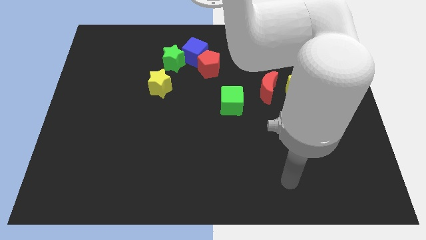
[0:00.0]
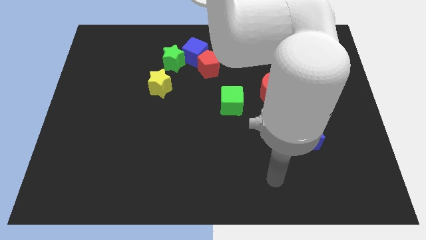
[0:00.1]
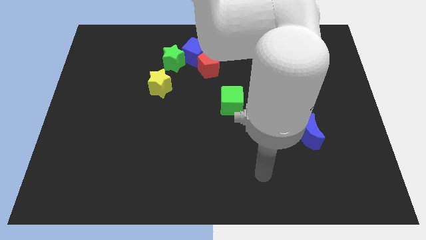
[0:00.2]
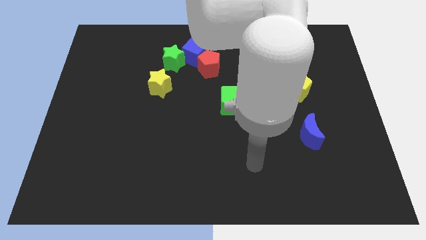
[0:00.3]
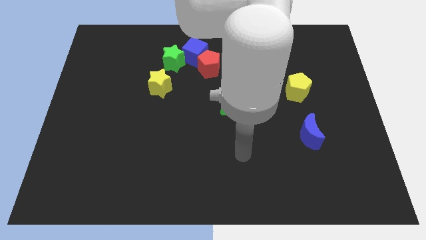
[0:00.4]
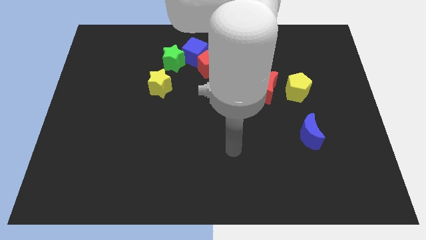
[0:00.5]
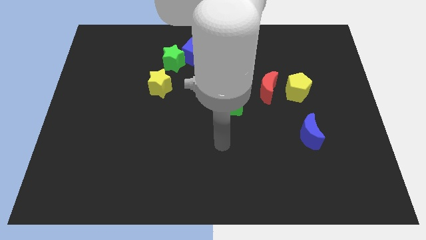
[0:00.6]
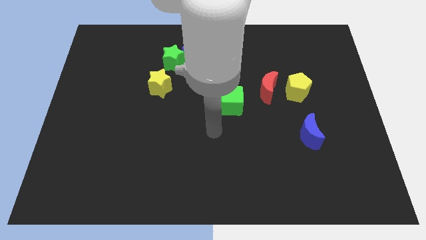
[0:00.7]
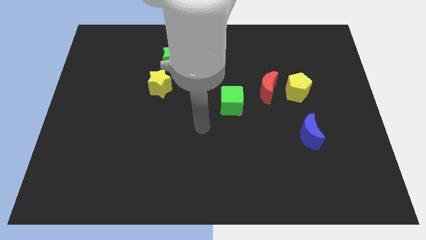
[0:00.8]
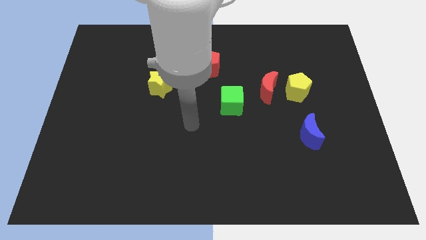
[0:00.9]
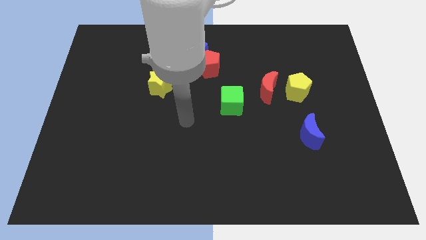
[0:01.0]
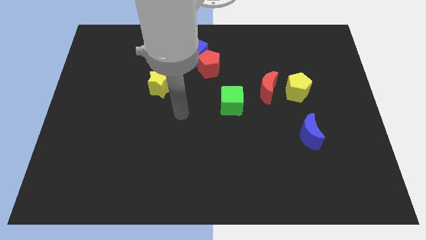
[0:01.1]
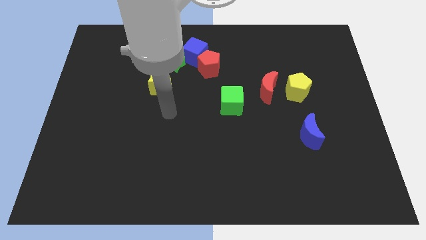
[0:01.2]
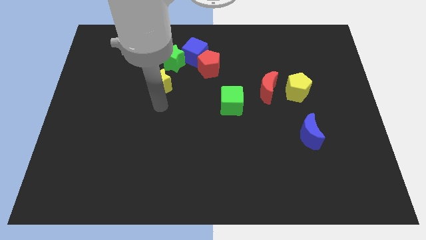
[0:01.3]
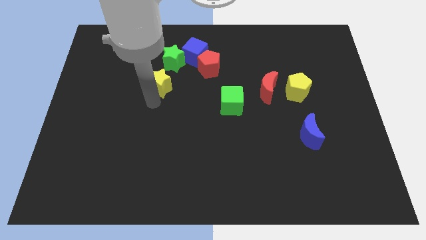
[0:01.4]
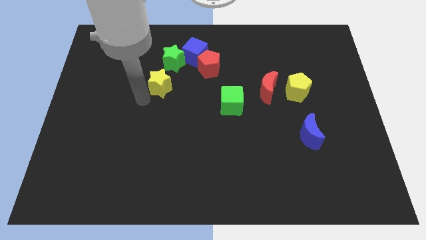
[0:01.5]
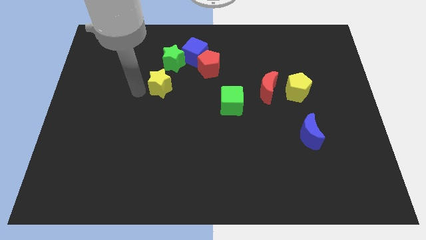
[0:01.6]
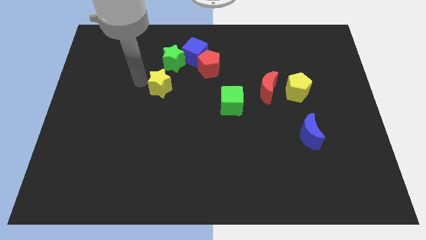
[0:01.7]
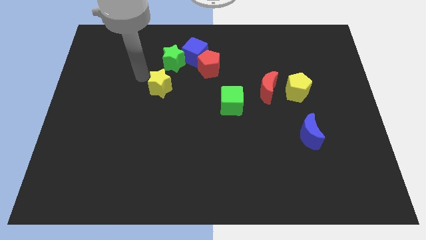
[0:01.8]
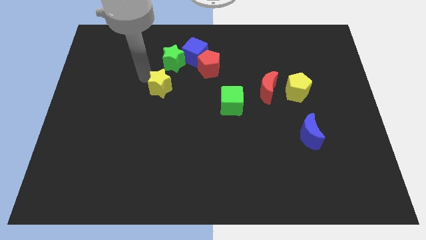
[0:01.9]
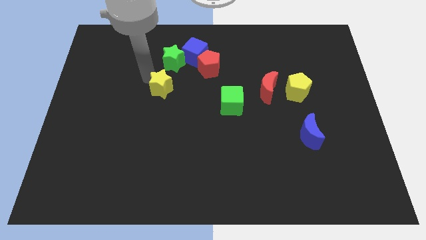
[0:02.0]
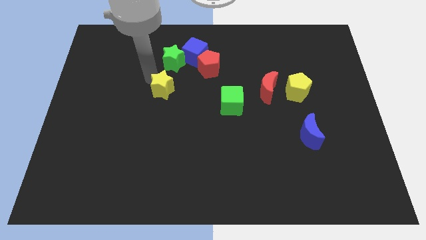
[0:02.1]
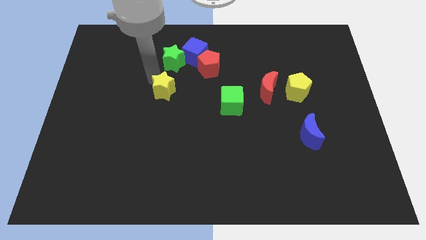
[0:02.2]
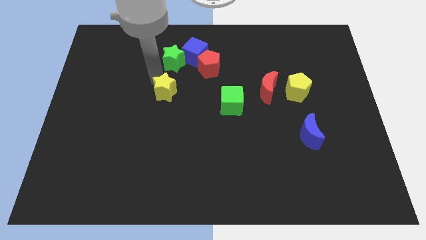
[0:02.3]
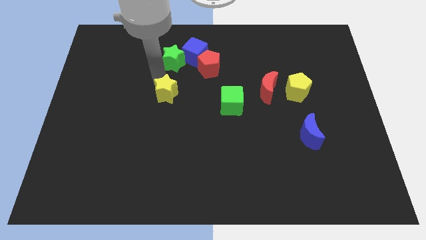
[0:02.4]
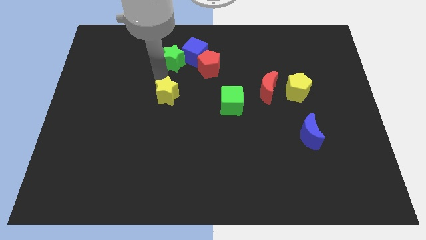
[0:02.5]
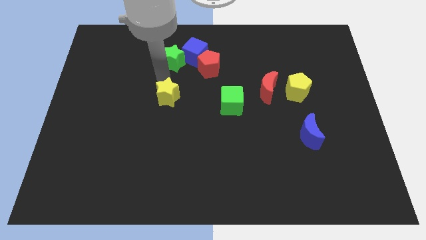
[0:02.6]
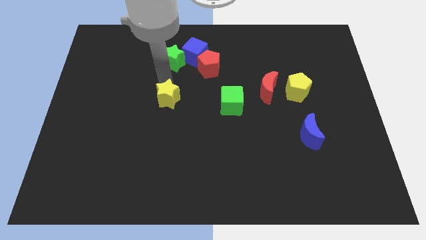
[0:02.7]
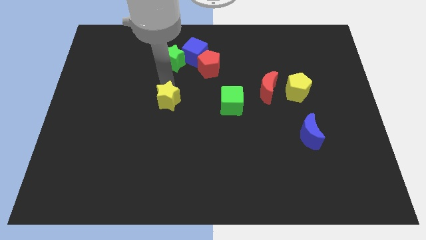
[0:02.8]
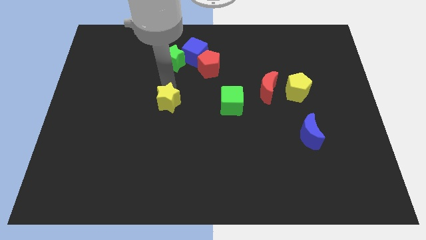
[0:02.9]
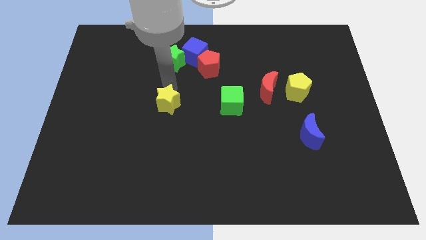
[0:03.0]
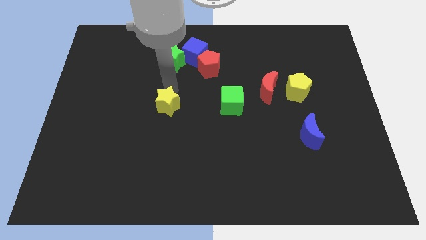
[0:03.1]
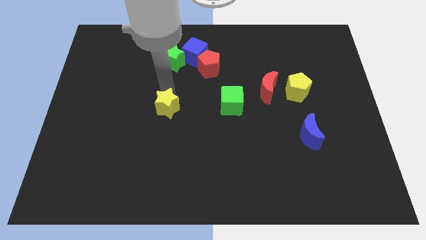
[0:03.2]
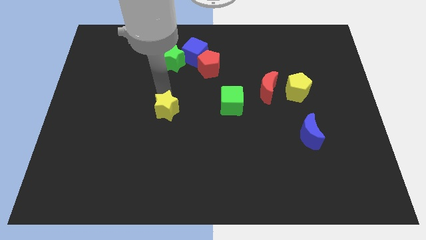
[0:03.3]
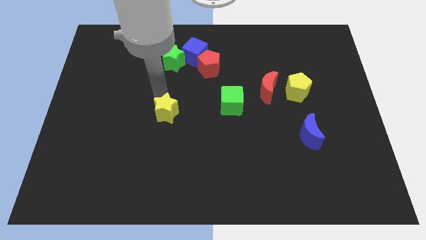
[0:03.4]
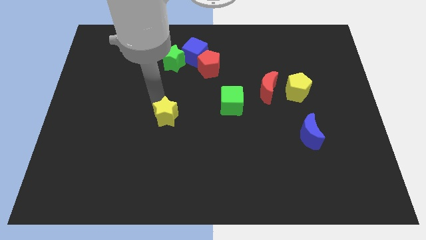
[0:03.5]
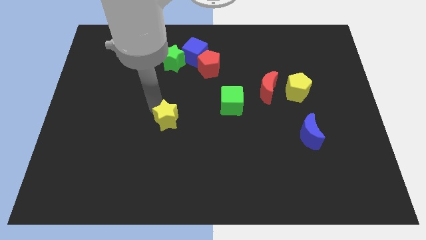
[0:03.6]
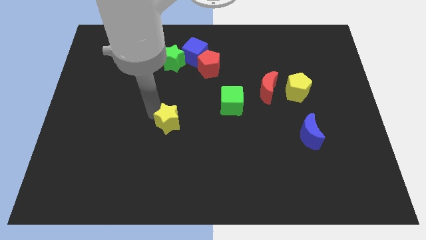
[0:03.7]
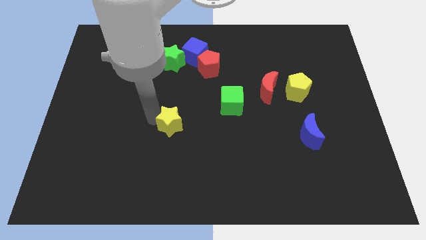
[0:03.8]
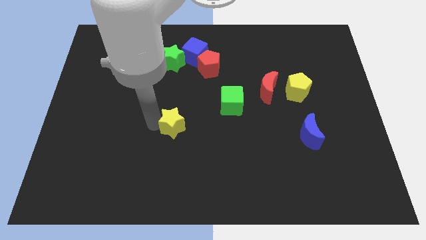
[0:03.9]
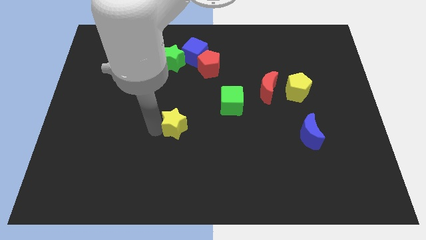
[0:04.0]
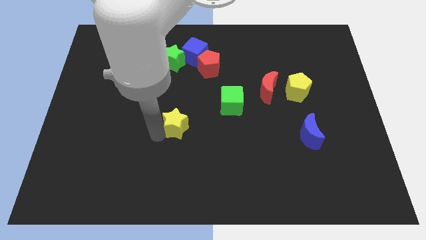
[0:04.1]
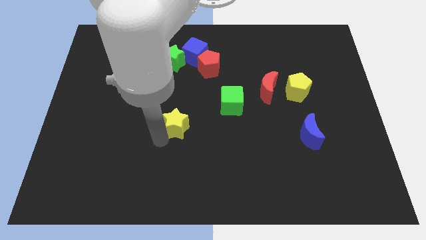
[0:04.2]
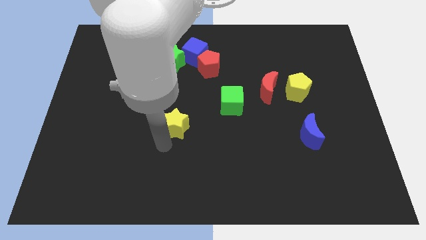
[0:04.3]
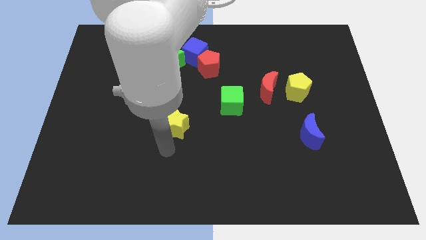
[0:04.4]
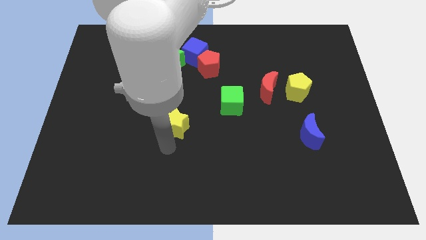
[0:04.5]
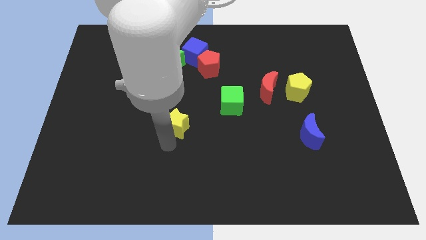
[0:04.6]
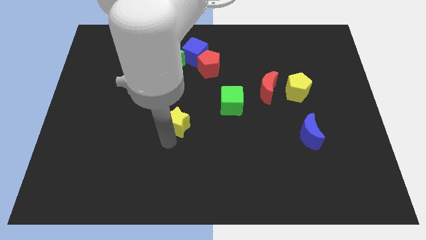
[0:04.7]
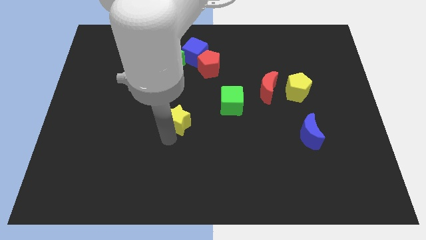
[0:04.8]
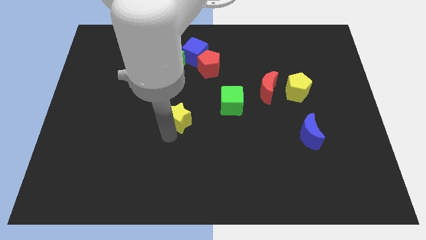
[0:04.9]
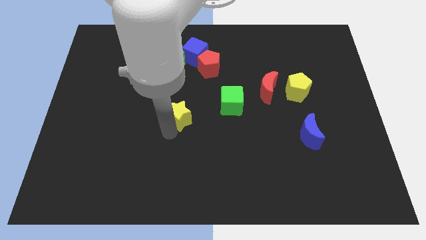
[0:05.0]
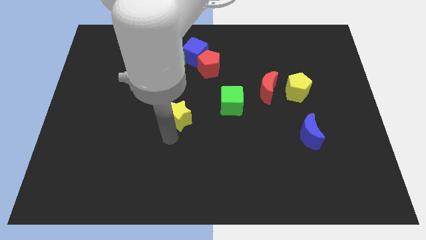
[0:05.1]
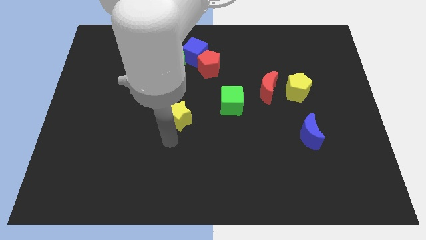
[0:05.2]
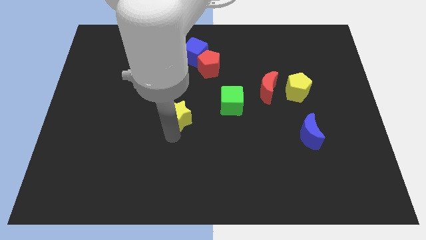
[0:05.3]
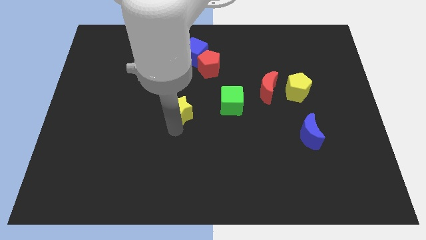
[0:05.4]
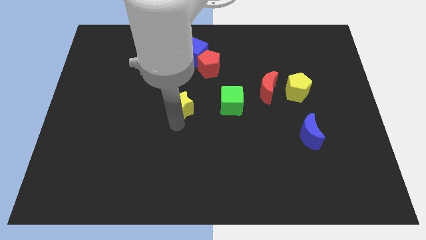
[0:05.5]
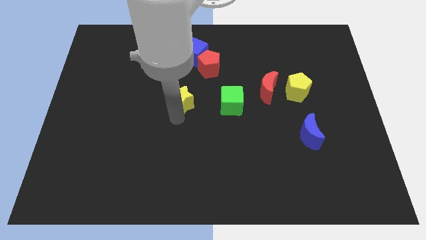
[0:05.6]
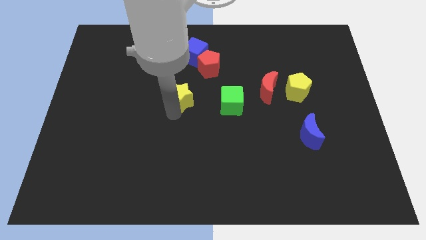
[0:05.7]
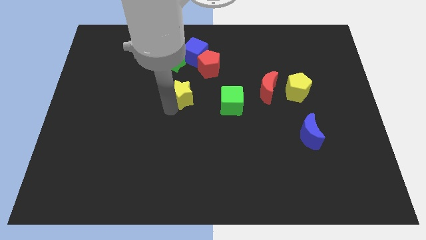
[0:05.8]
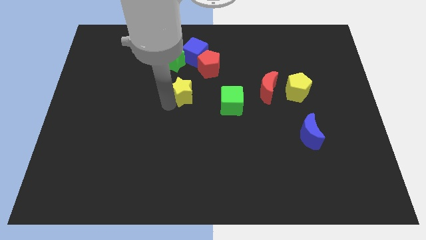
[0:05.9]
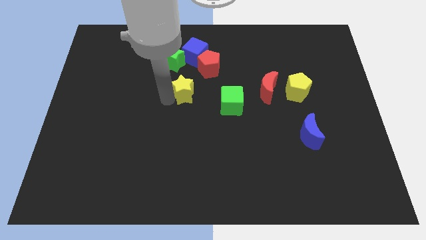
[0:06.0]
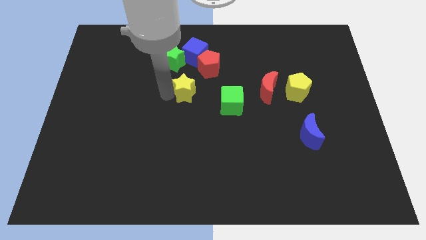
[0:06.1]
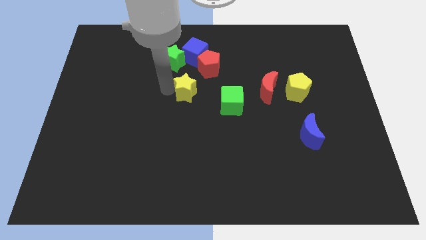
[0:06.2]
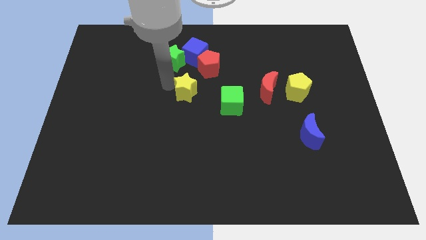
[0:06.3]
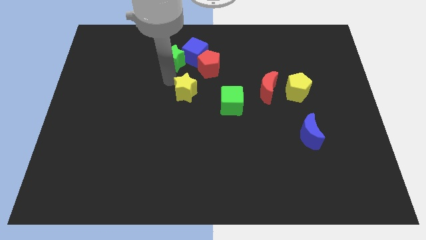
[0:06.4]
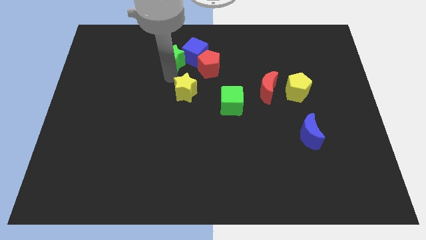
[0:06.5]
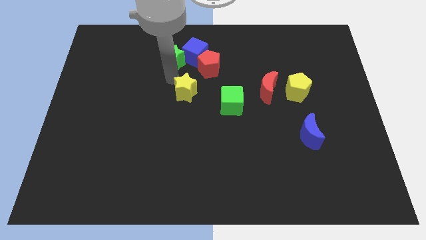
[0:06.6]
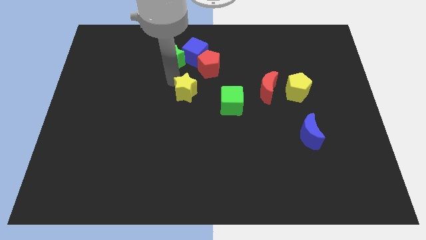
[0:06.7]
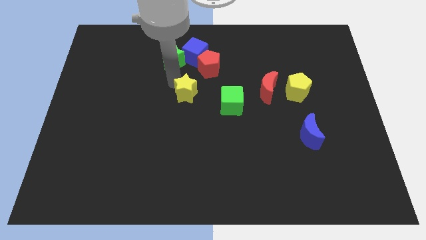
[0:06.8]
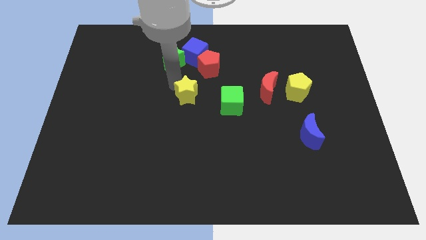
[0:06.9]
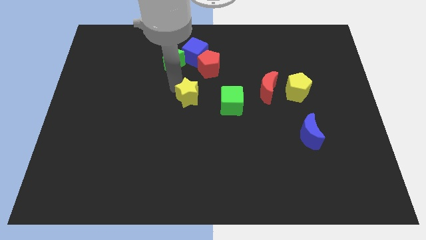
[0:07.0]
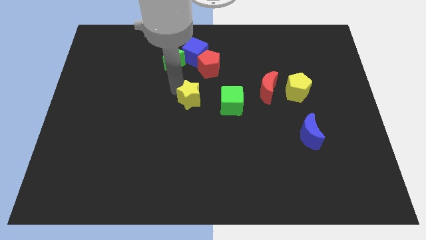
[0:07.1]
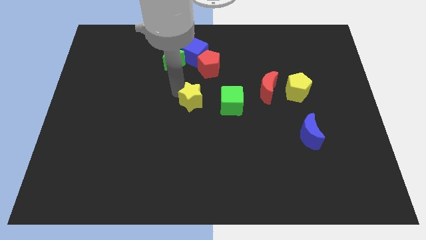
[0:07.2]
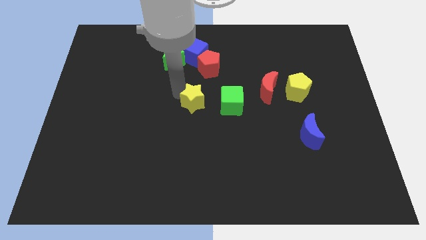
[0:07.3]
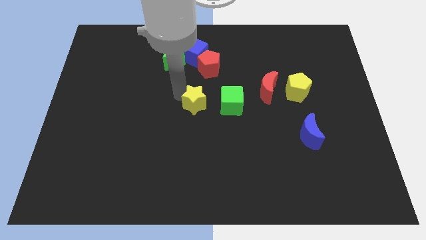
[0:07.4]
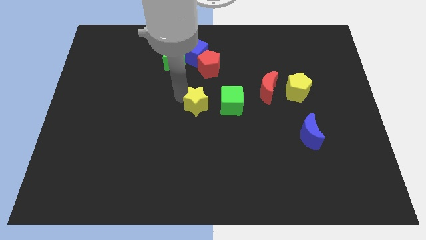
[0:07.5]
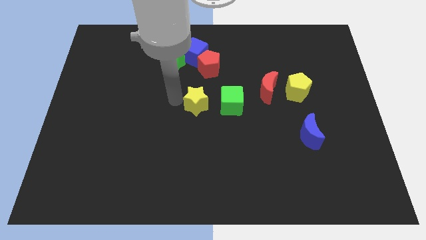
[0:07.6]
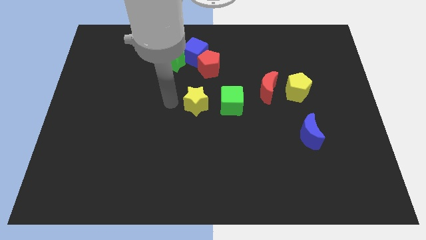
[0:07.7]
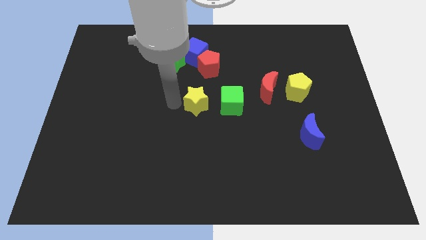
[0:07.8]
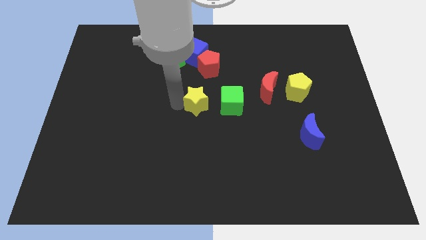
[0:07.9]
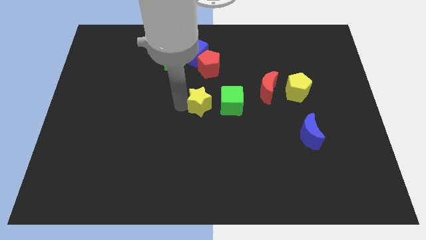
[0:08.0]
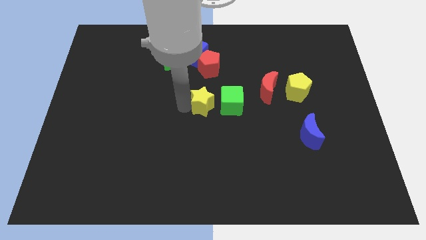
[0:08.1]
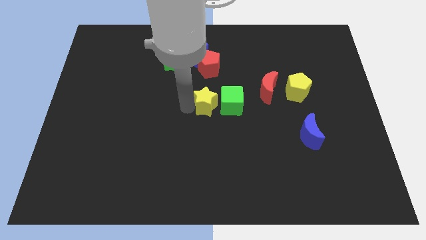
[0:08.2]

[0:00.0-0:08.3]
slide the yellow star to the green cube
